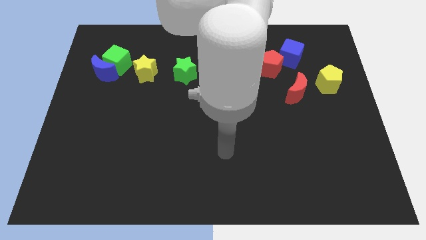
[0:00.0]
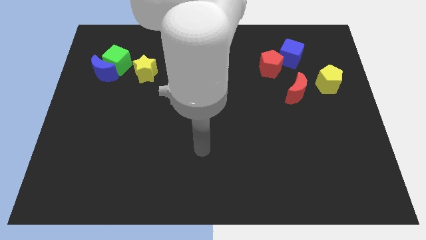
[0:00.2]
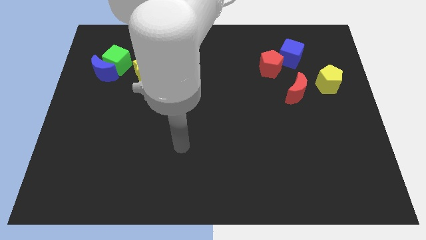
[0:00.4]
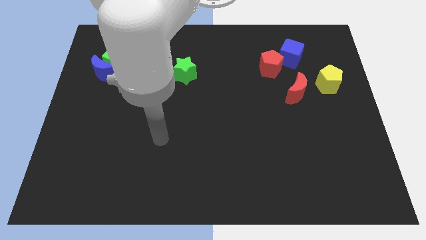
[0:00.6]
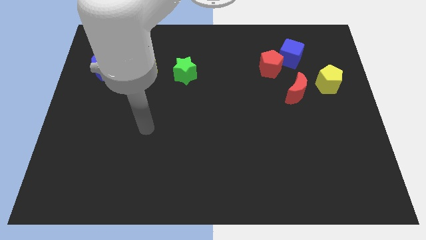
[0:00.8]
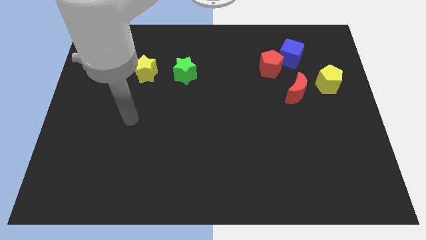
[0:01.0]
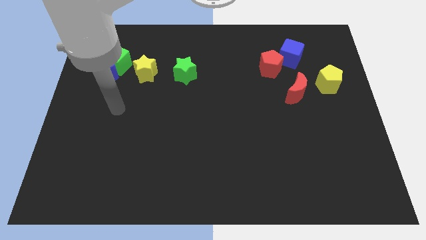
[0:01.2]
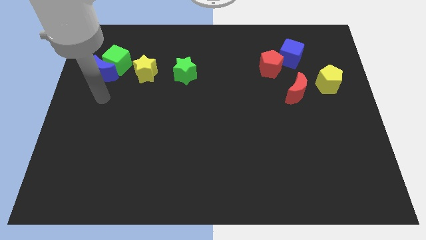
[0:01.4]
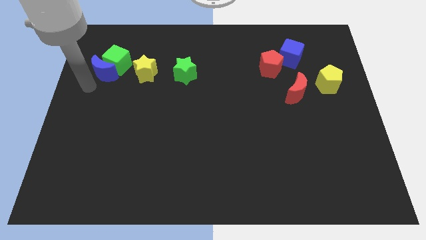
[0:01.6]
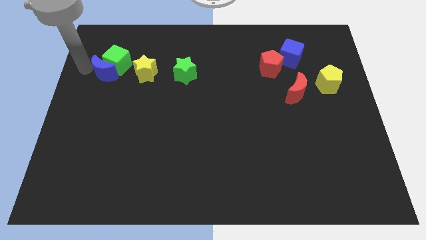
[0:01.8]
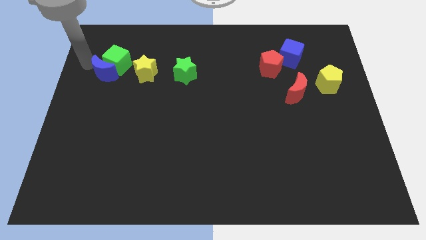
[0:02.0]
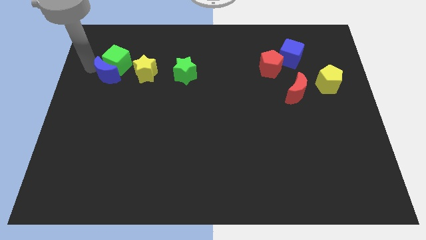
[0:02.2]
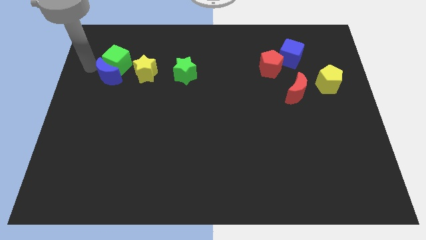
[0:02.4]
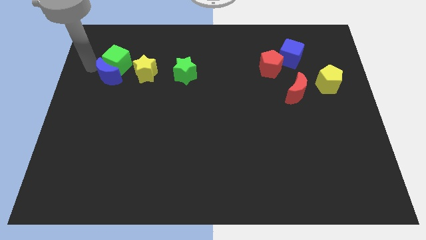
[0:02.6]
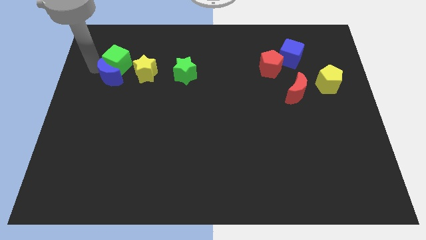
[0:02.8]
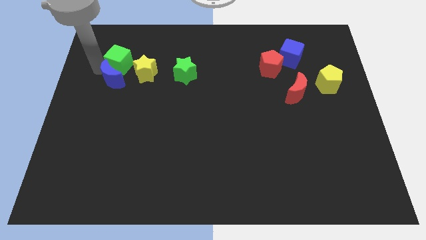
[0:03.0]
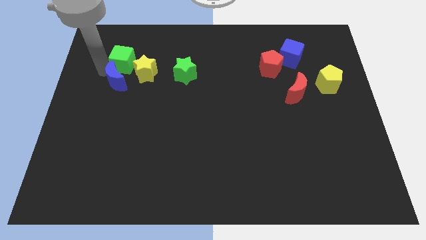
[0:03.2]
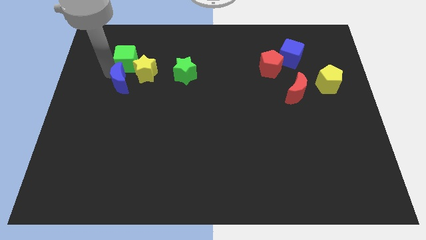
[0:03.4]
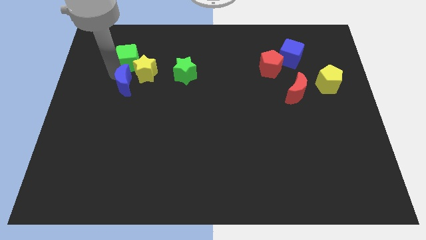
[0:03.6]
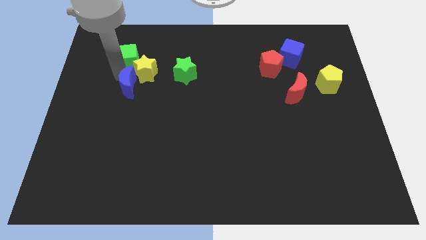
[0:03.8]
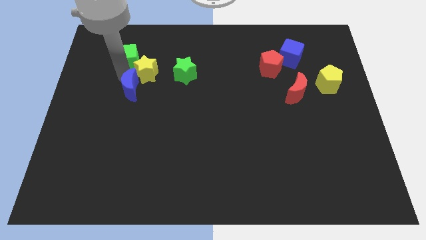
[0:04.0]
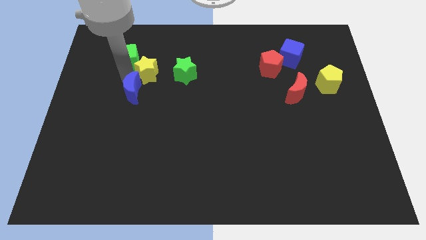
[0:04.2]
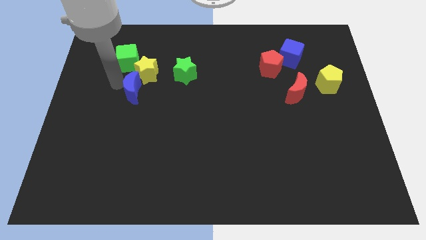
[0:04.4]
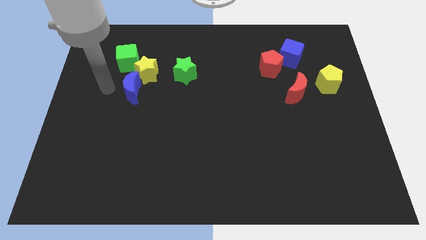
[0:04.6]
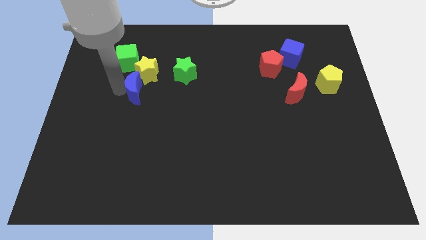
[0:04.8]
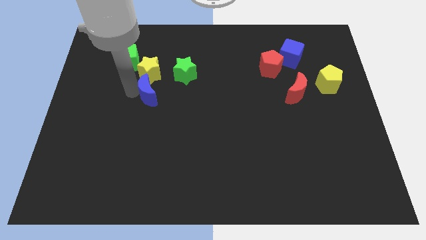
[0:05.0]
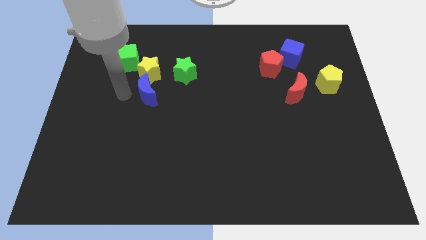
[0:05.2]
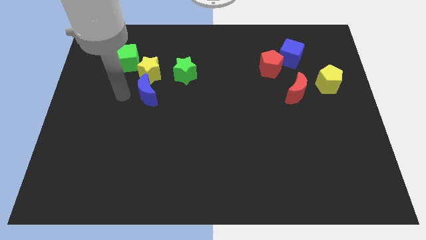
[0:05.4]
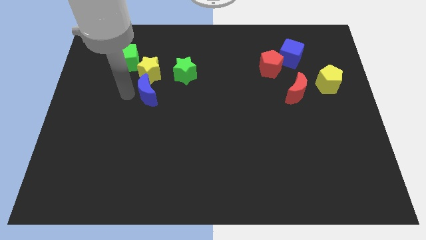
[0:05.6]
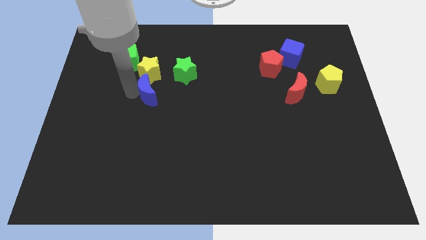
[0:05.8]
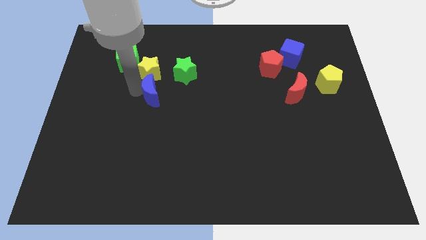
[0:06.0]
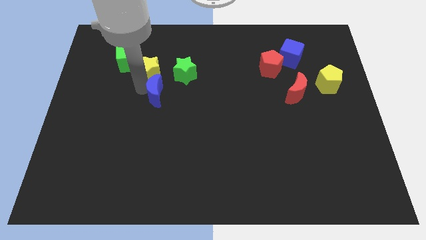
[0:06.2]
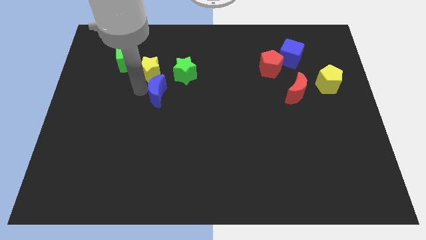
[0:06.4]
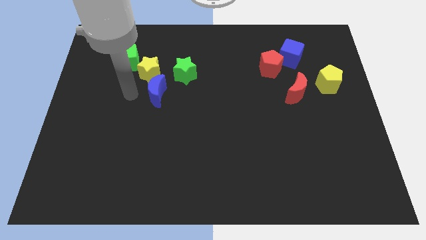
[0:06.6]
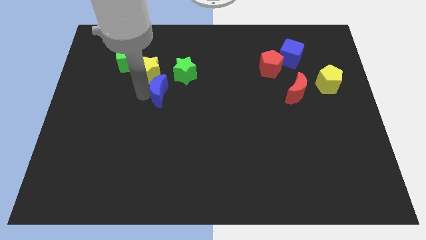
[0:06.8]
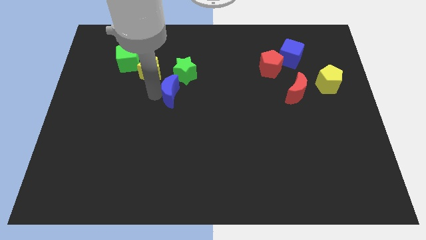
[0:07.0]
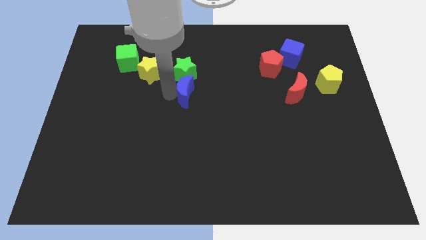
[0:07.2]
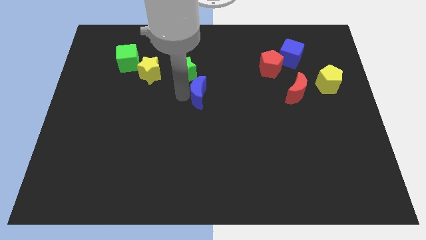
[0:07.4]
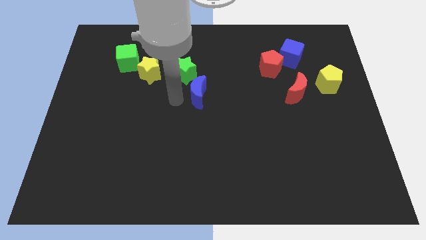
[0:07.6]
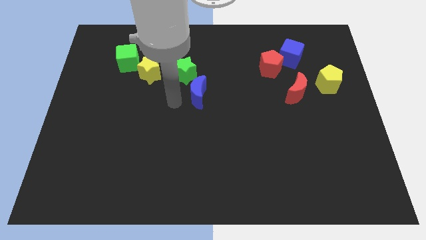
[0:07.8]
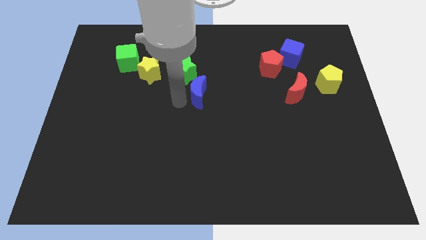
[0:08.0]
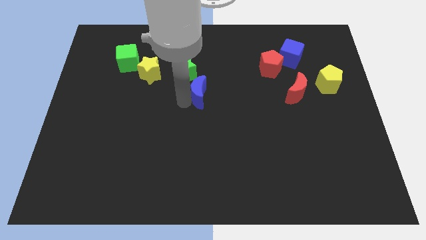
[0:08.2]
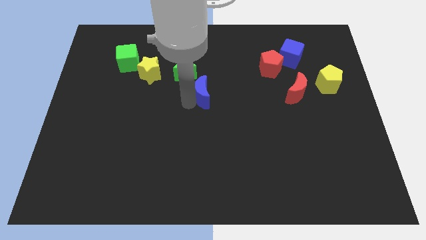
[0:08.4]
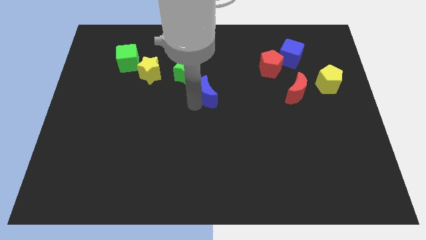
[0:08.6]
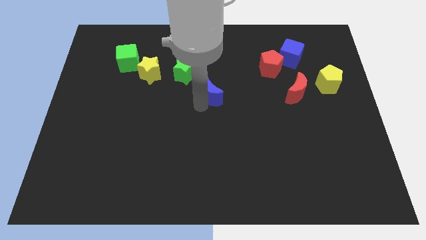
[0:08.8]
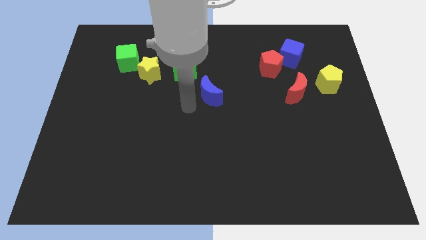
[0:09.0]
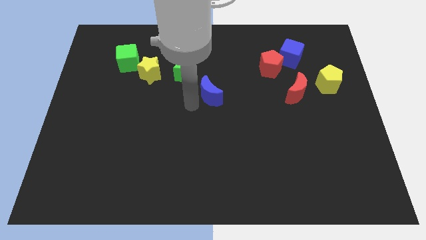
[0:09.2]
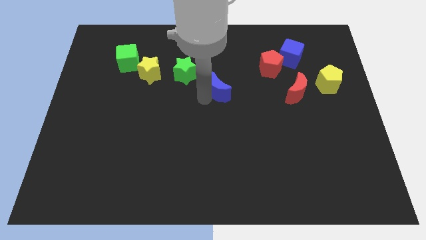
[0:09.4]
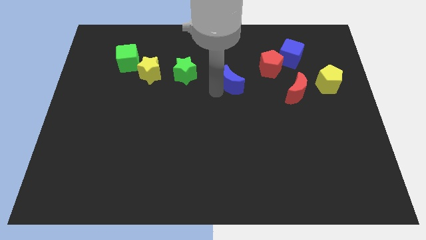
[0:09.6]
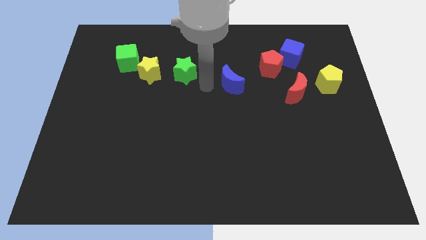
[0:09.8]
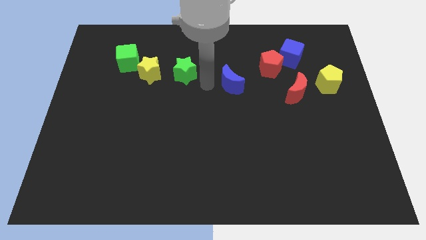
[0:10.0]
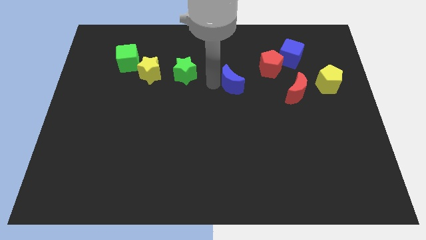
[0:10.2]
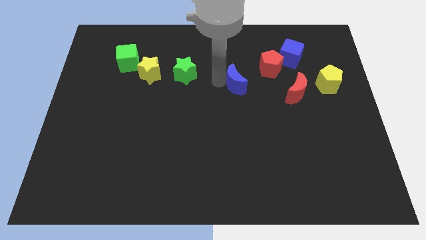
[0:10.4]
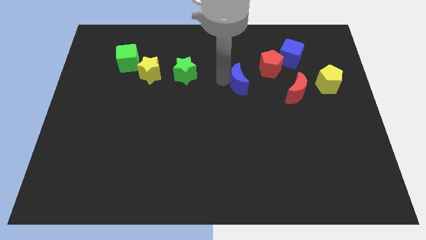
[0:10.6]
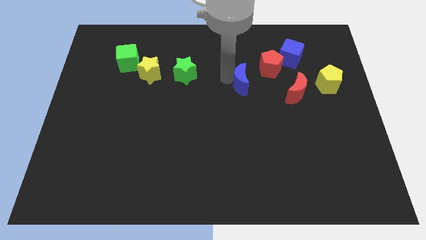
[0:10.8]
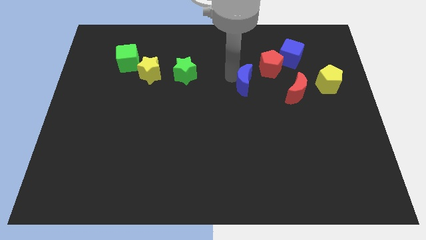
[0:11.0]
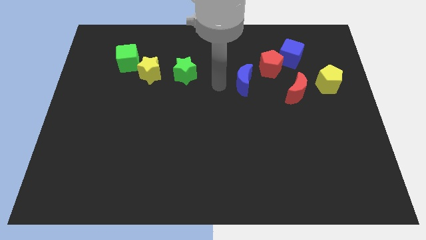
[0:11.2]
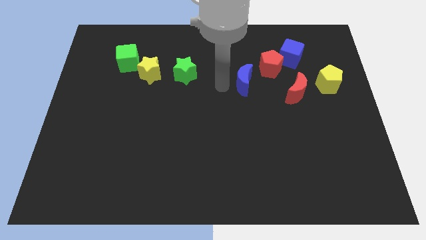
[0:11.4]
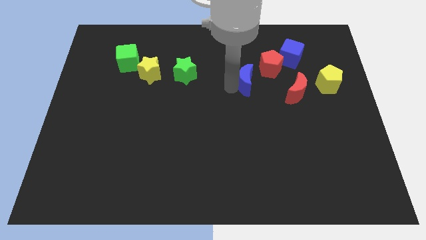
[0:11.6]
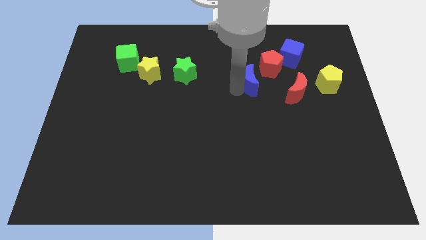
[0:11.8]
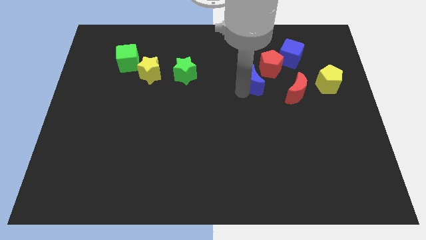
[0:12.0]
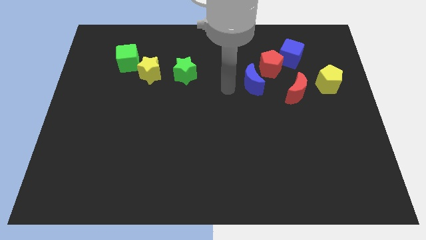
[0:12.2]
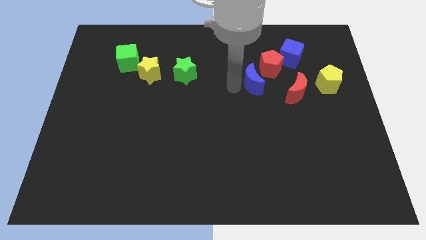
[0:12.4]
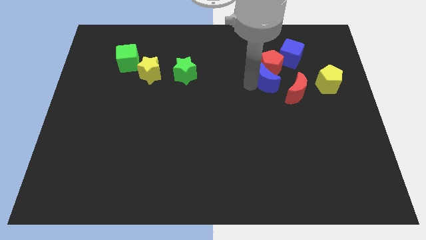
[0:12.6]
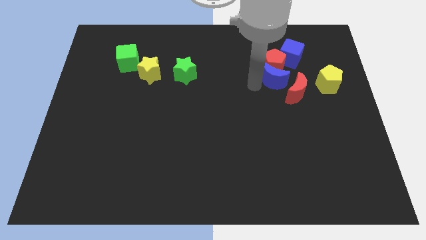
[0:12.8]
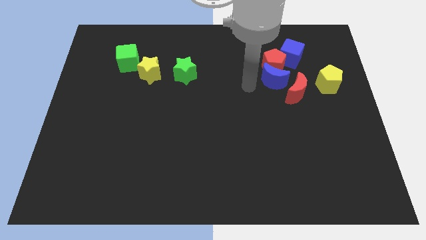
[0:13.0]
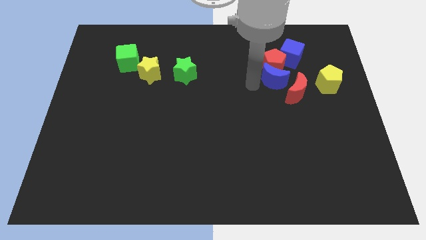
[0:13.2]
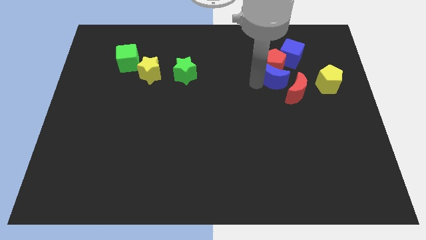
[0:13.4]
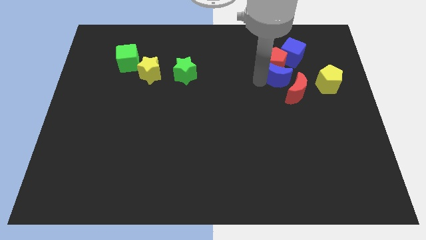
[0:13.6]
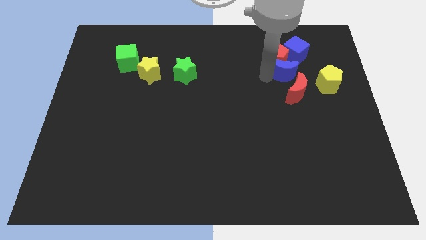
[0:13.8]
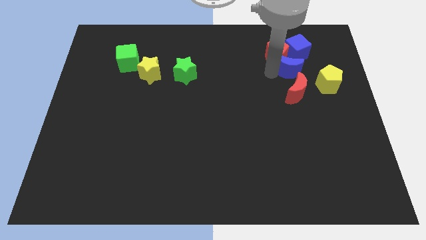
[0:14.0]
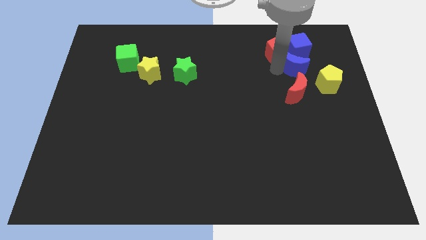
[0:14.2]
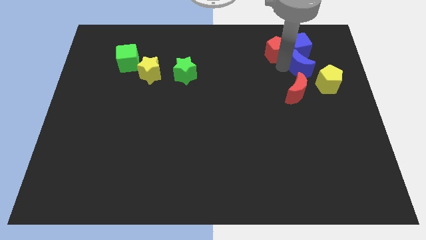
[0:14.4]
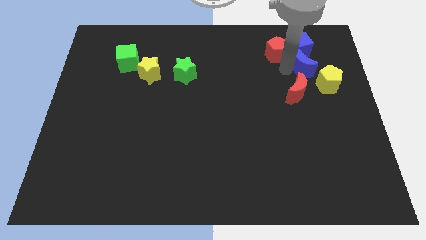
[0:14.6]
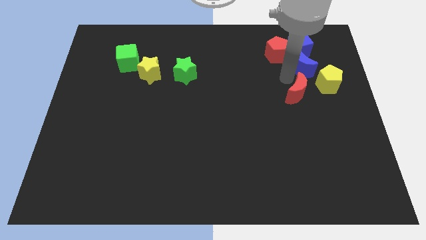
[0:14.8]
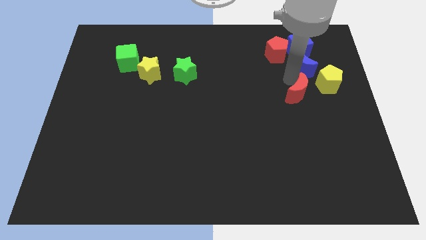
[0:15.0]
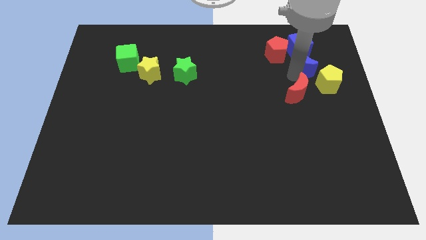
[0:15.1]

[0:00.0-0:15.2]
push the blue moon to the right side of the red pentagon

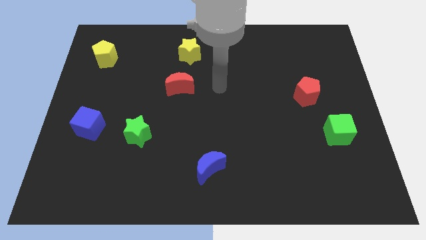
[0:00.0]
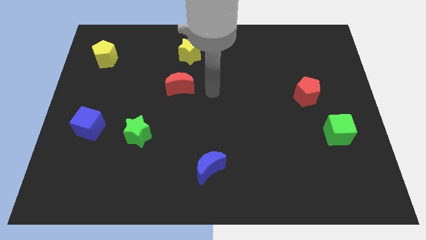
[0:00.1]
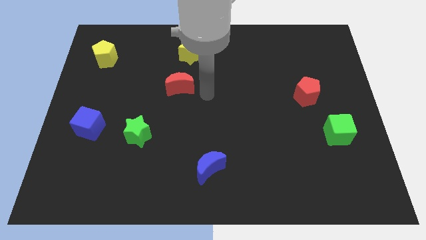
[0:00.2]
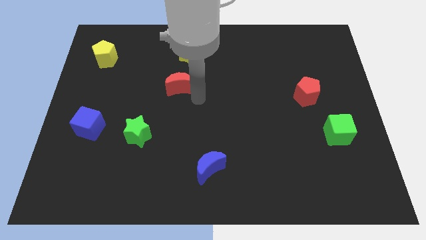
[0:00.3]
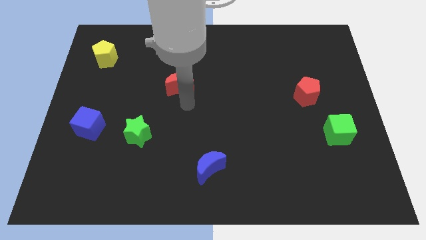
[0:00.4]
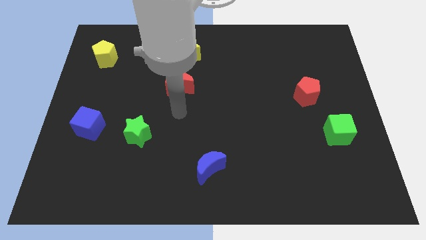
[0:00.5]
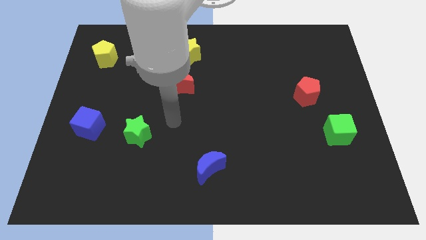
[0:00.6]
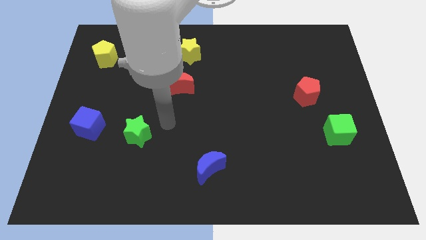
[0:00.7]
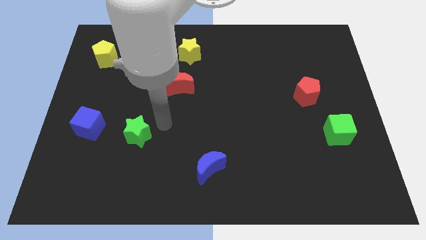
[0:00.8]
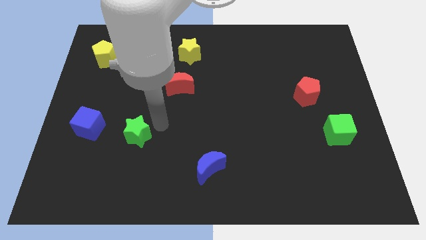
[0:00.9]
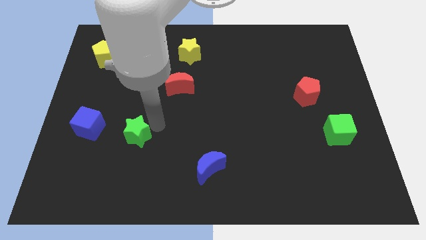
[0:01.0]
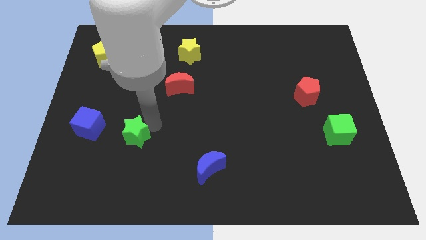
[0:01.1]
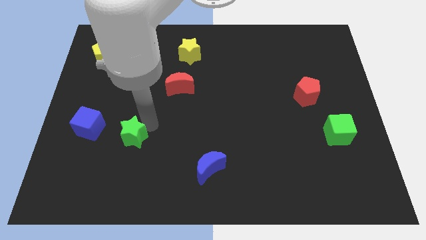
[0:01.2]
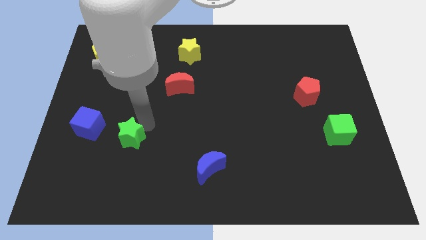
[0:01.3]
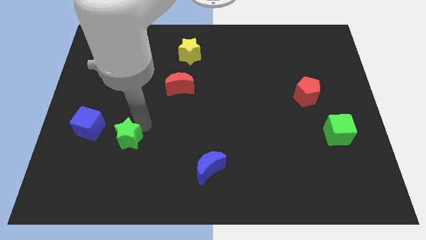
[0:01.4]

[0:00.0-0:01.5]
slide the green star to the bottom right side of the blue cube
